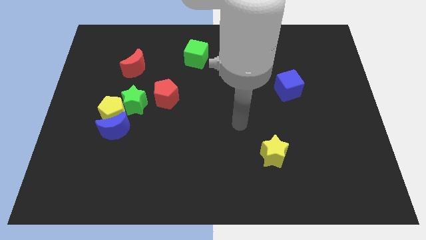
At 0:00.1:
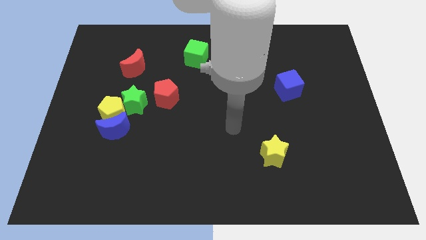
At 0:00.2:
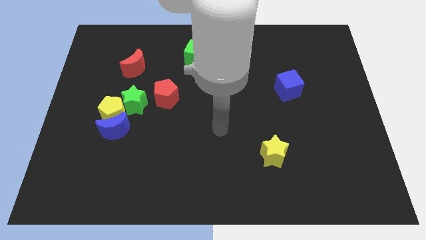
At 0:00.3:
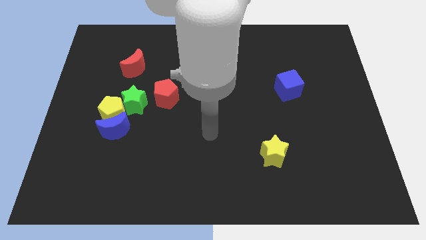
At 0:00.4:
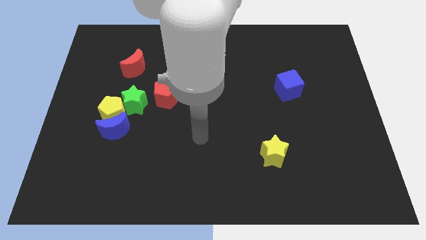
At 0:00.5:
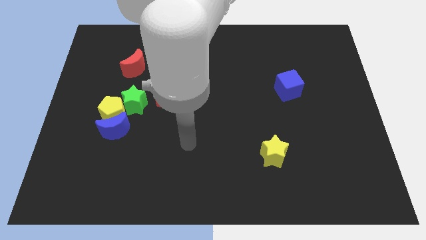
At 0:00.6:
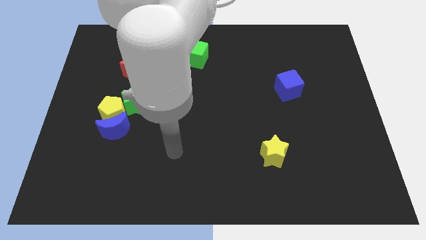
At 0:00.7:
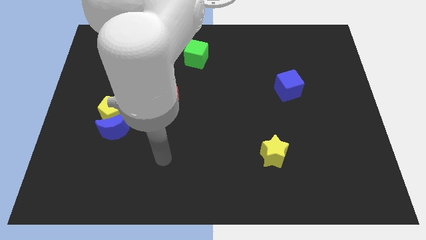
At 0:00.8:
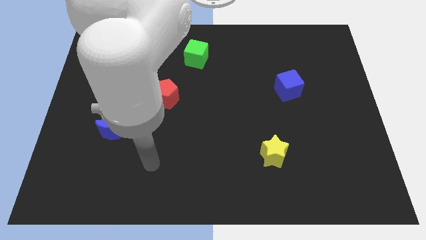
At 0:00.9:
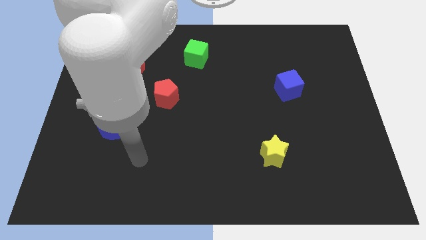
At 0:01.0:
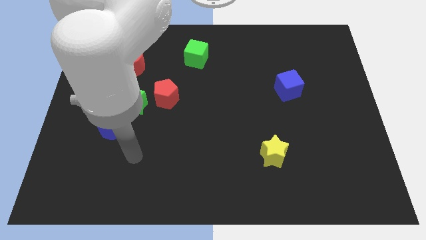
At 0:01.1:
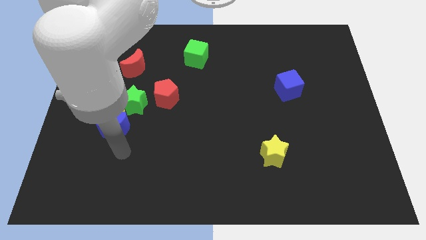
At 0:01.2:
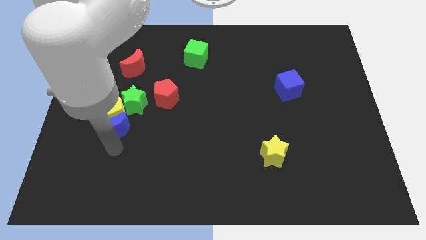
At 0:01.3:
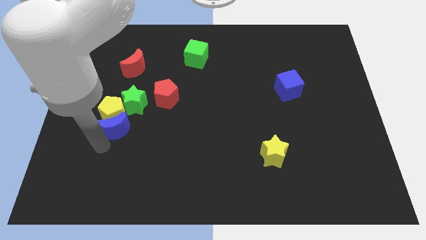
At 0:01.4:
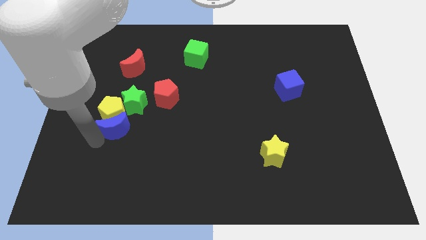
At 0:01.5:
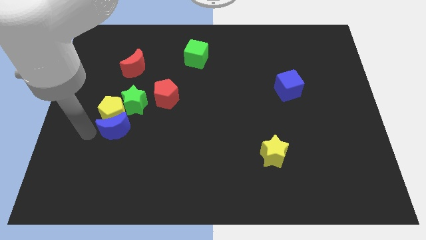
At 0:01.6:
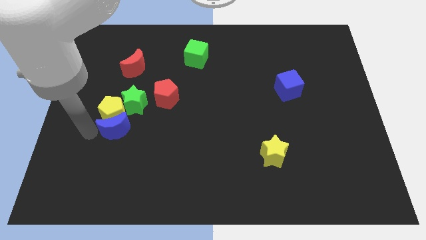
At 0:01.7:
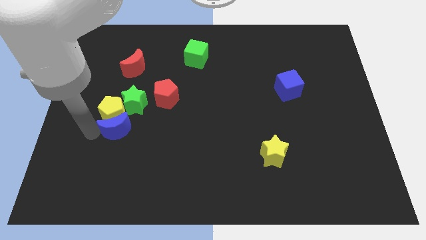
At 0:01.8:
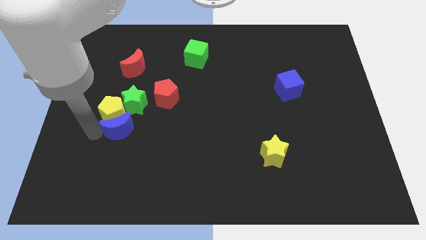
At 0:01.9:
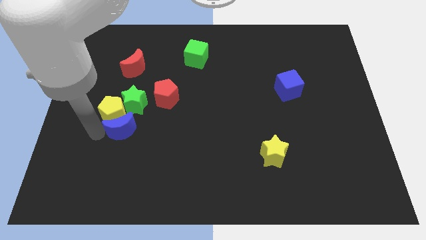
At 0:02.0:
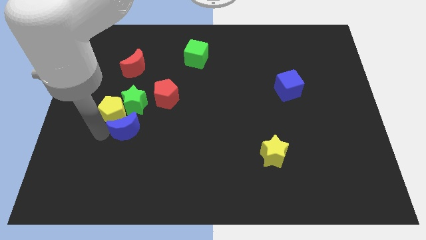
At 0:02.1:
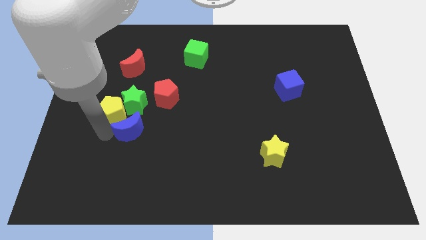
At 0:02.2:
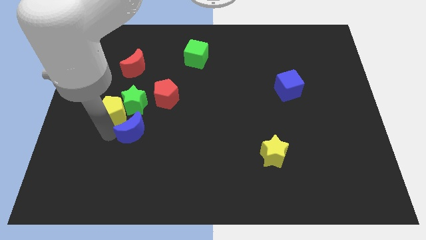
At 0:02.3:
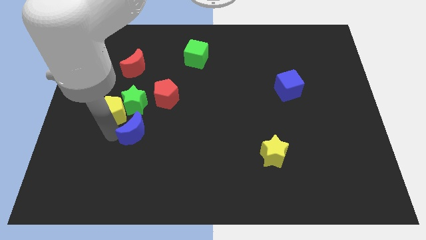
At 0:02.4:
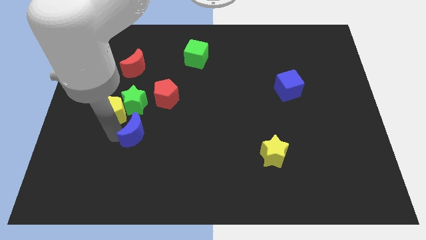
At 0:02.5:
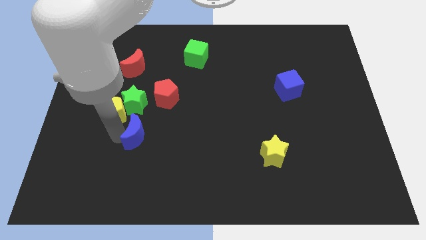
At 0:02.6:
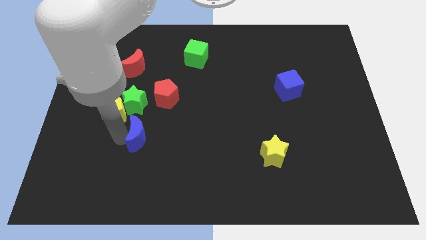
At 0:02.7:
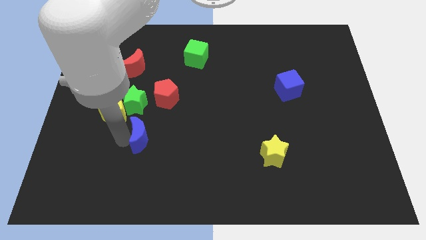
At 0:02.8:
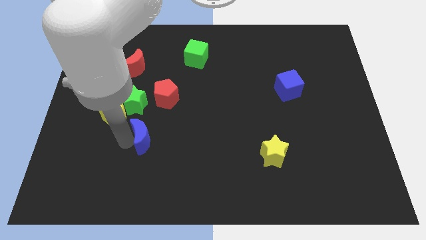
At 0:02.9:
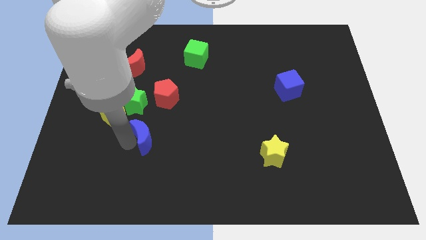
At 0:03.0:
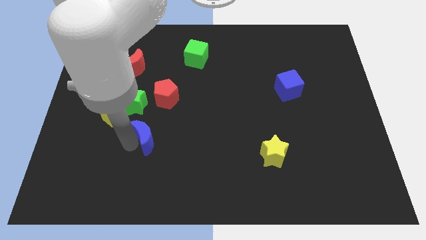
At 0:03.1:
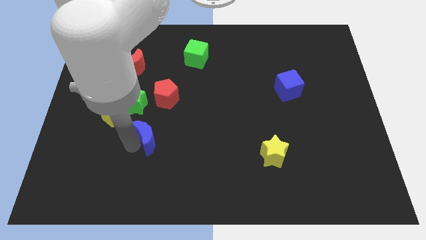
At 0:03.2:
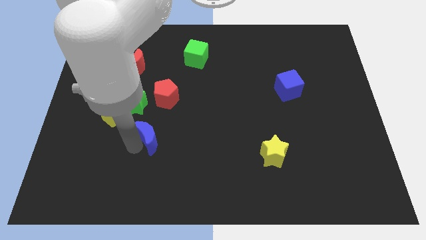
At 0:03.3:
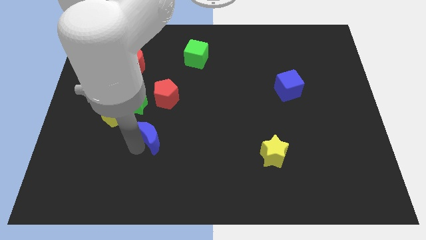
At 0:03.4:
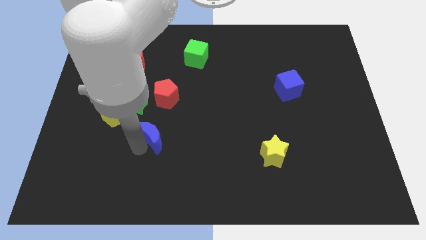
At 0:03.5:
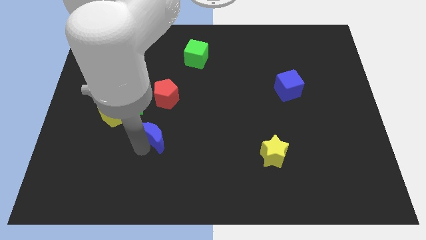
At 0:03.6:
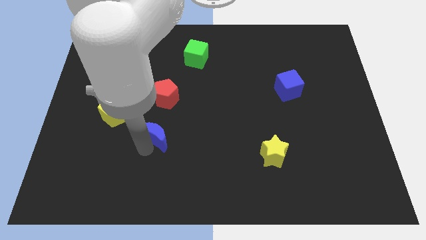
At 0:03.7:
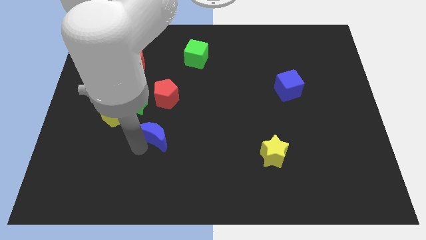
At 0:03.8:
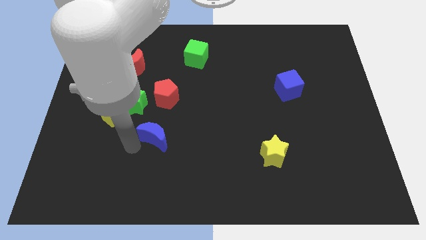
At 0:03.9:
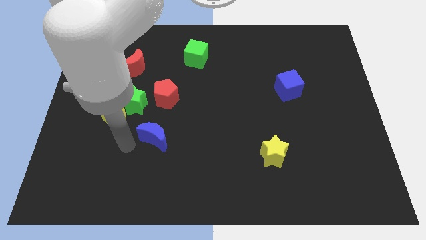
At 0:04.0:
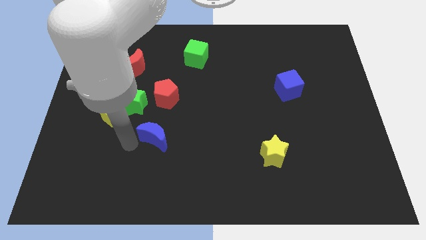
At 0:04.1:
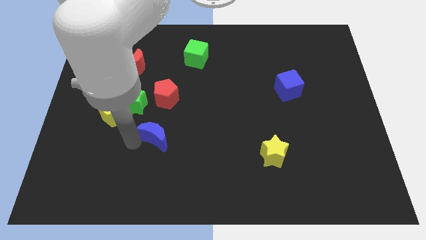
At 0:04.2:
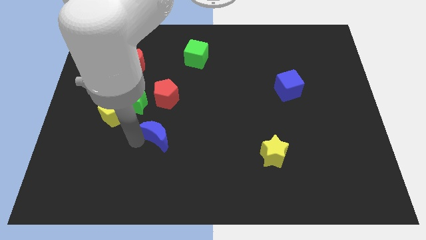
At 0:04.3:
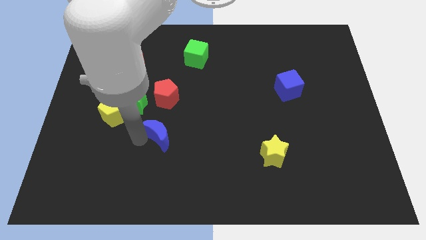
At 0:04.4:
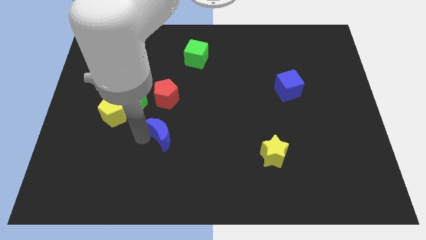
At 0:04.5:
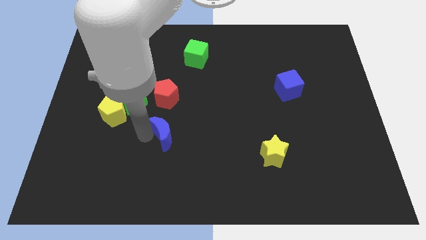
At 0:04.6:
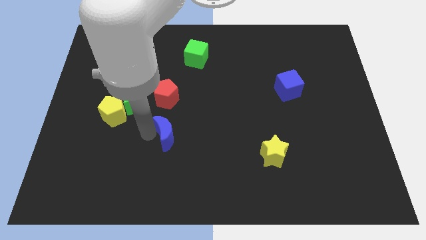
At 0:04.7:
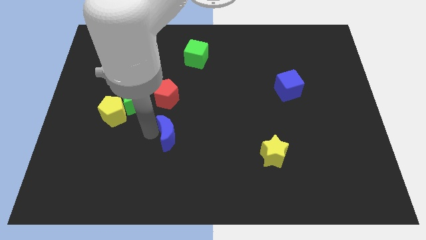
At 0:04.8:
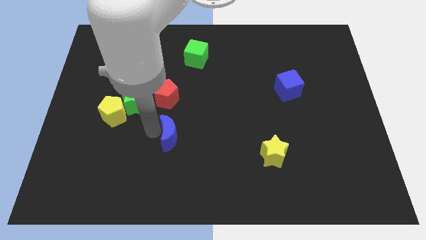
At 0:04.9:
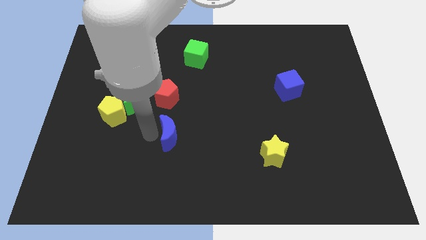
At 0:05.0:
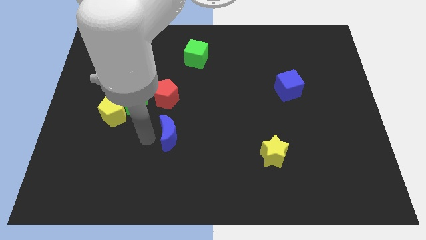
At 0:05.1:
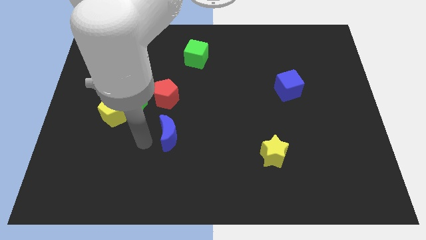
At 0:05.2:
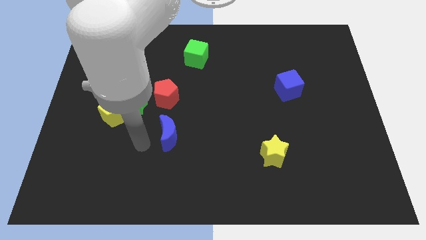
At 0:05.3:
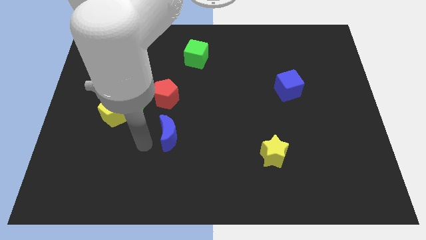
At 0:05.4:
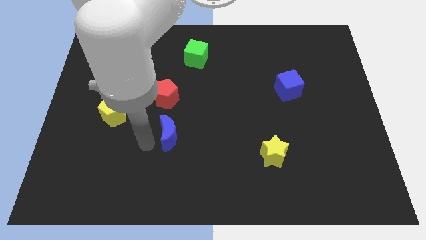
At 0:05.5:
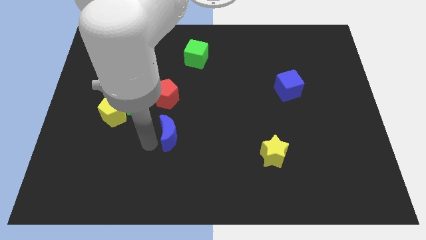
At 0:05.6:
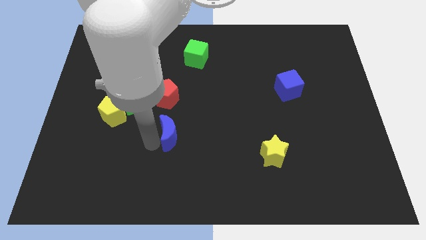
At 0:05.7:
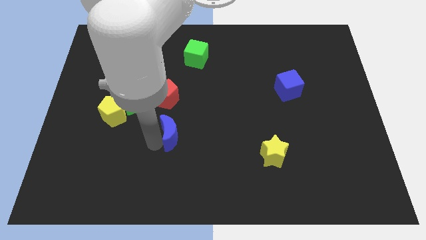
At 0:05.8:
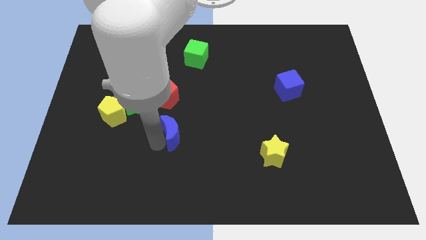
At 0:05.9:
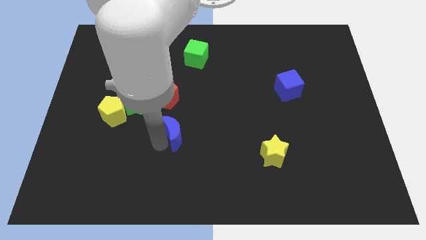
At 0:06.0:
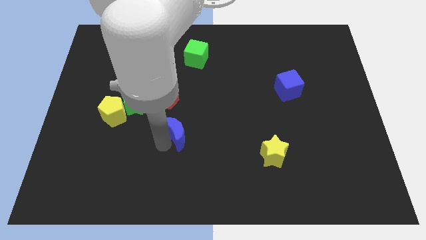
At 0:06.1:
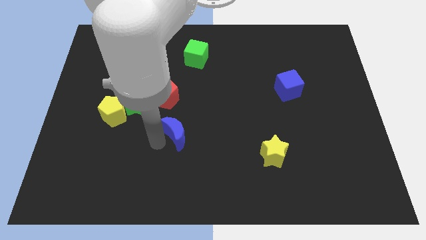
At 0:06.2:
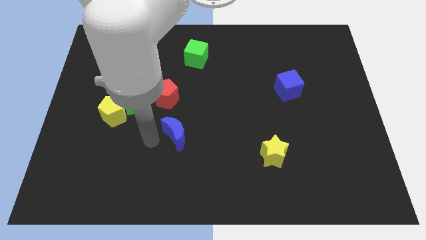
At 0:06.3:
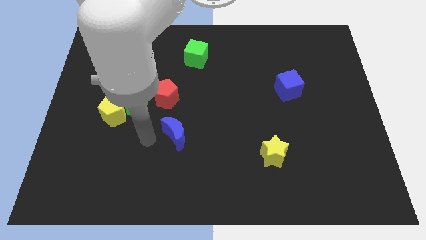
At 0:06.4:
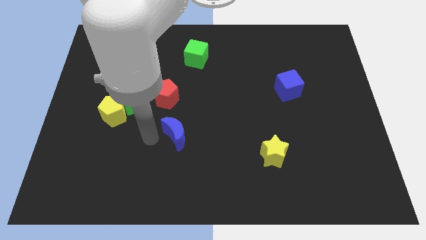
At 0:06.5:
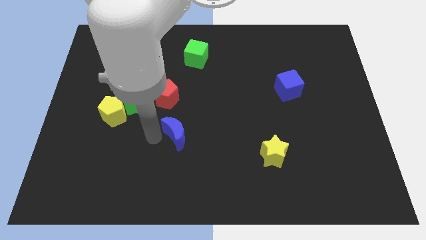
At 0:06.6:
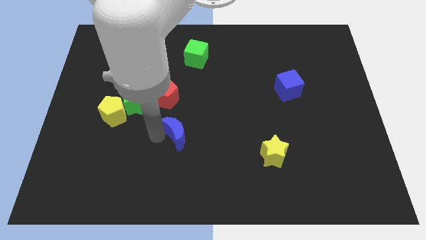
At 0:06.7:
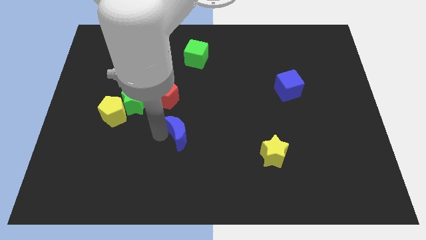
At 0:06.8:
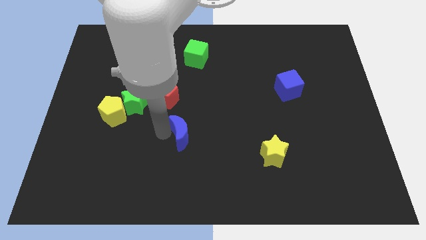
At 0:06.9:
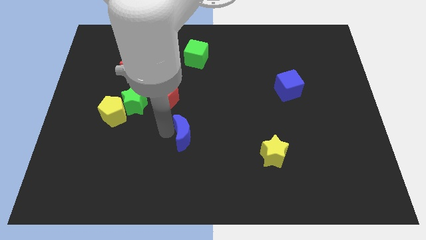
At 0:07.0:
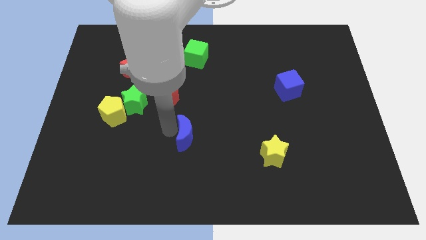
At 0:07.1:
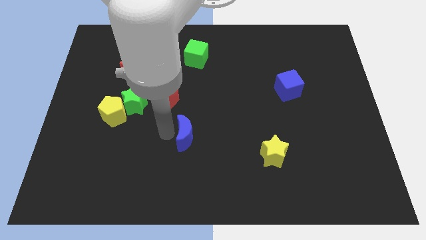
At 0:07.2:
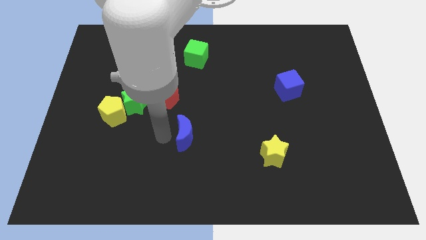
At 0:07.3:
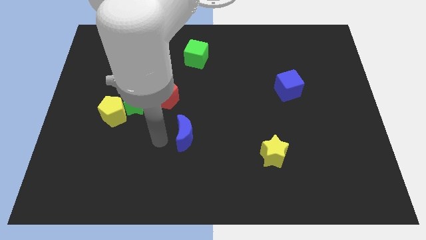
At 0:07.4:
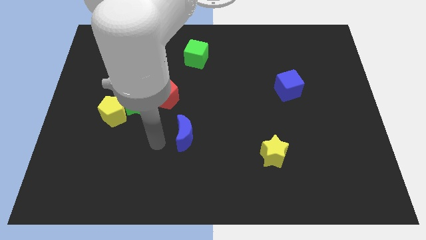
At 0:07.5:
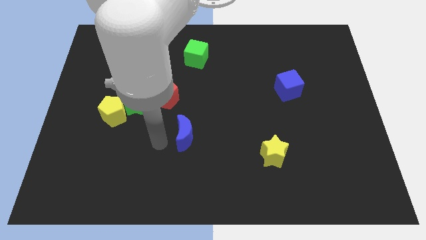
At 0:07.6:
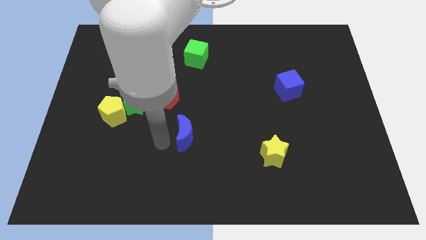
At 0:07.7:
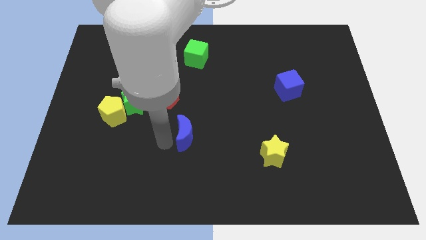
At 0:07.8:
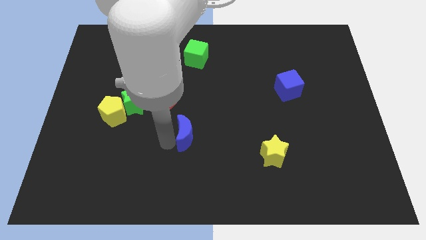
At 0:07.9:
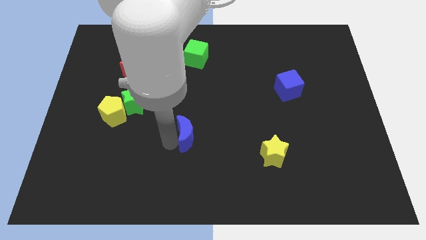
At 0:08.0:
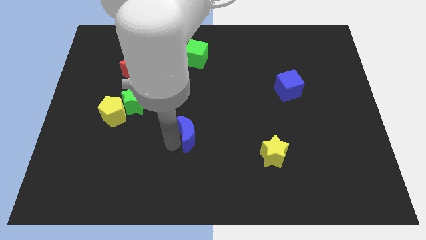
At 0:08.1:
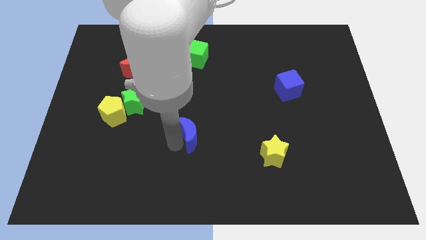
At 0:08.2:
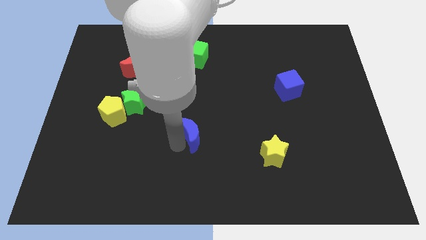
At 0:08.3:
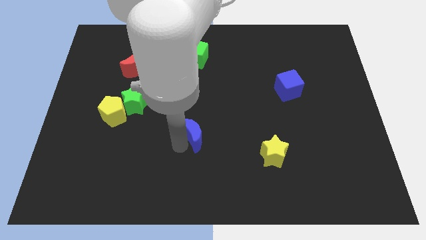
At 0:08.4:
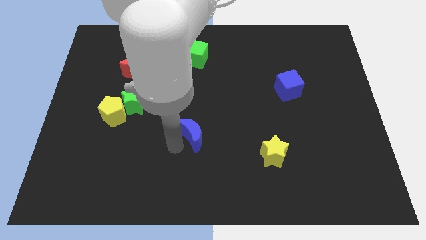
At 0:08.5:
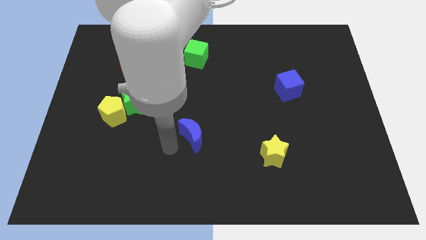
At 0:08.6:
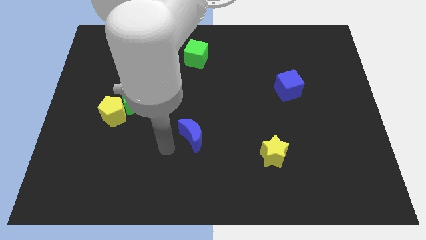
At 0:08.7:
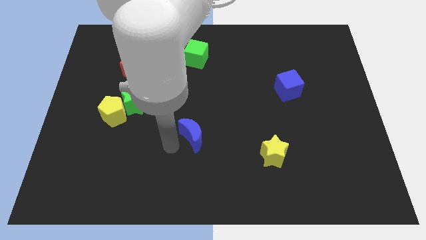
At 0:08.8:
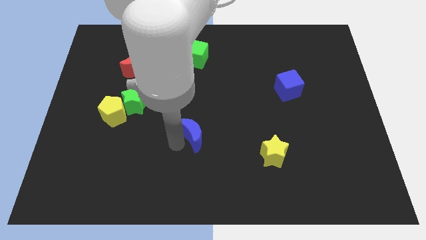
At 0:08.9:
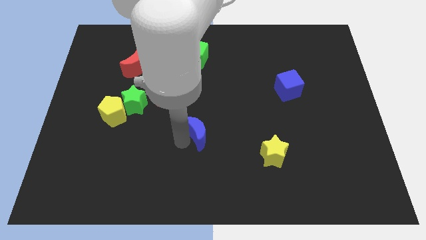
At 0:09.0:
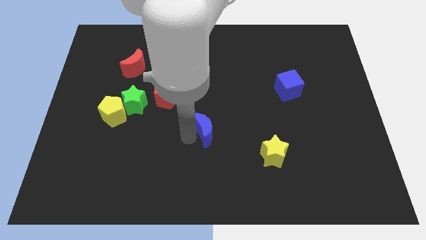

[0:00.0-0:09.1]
move the blue moon to the right
